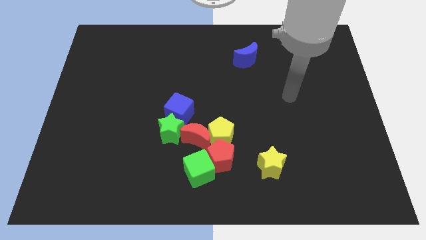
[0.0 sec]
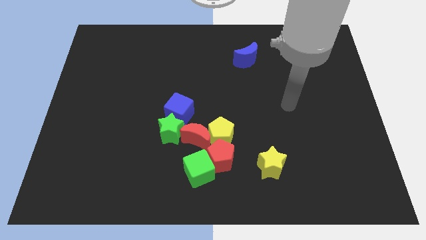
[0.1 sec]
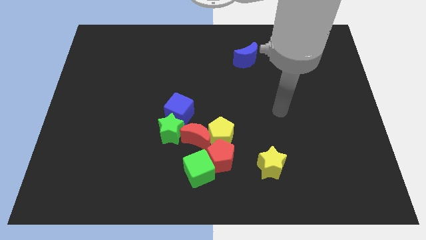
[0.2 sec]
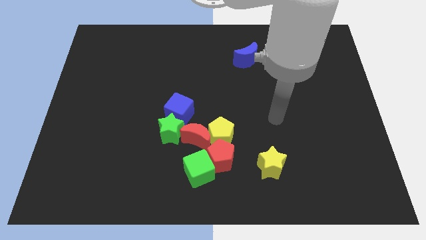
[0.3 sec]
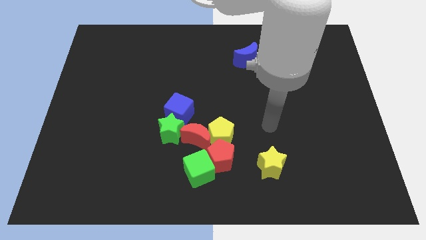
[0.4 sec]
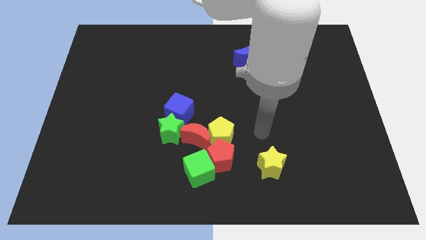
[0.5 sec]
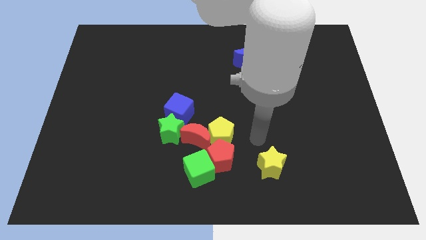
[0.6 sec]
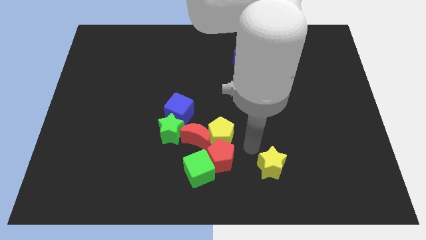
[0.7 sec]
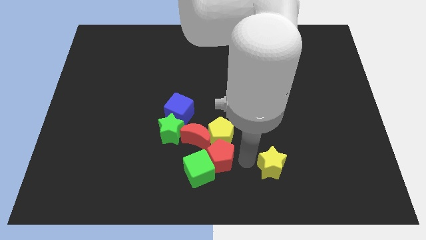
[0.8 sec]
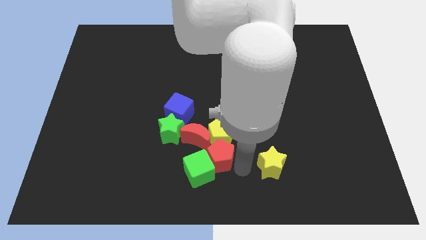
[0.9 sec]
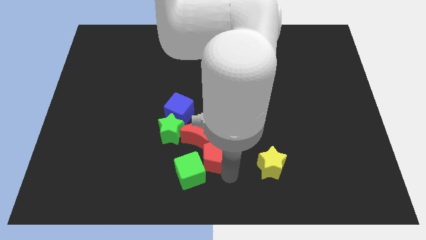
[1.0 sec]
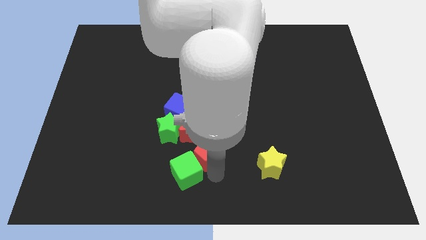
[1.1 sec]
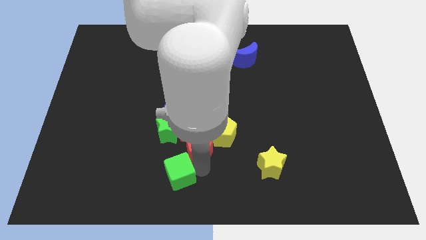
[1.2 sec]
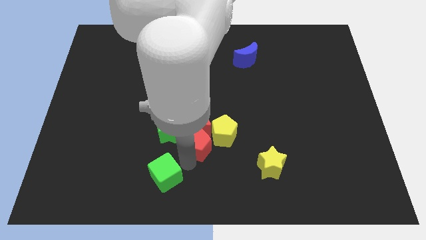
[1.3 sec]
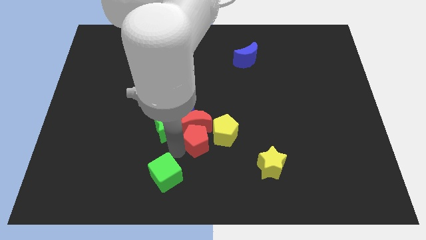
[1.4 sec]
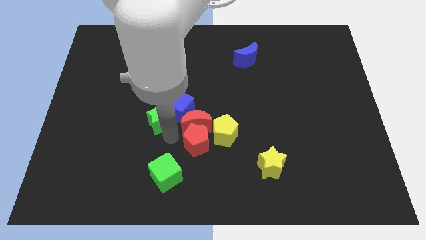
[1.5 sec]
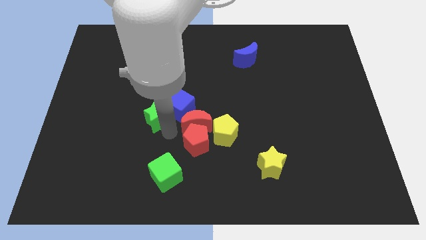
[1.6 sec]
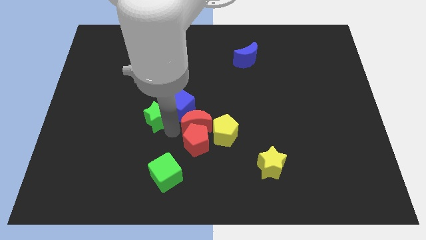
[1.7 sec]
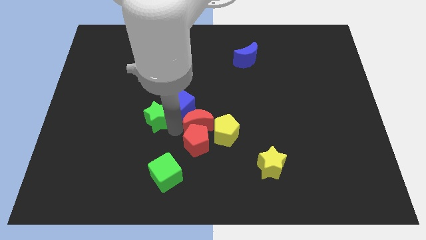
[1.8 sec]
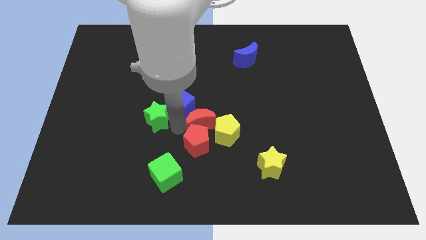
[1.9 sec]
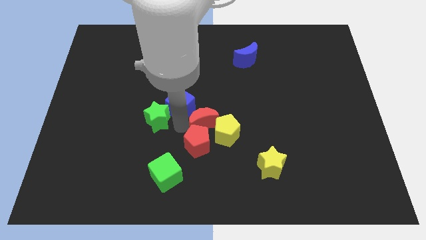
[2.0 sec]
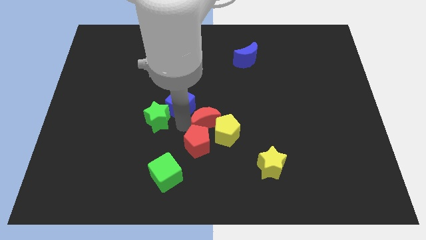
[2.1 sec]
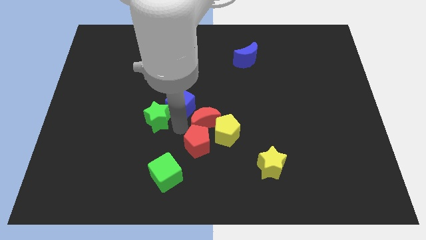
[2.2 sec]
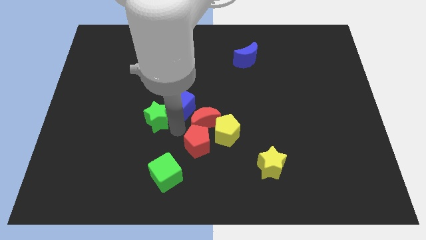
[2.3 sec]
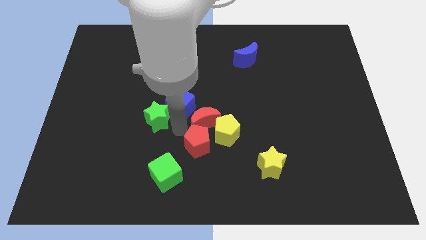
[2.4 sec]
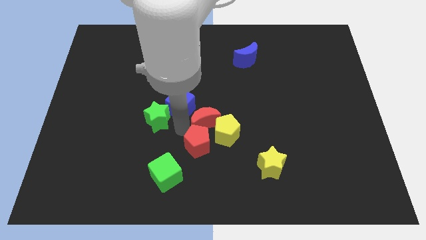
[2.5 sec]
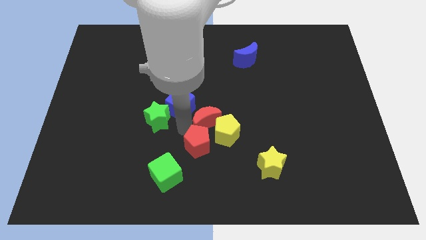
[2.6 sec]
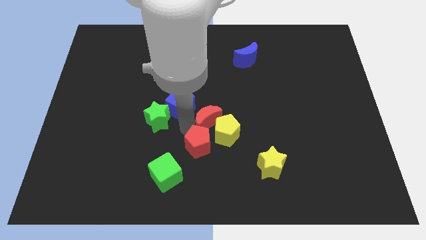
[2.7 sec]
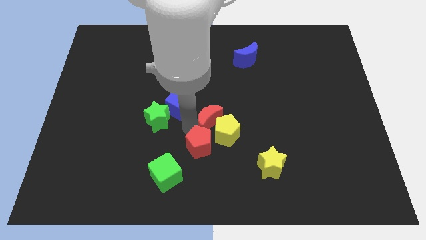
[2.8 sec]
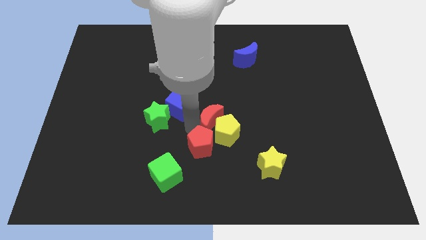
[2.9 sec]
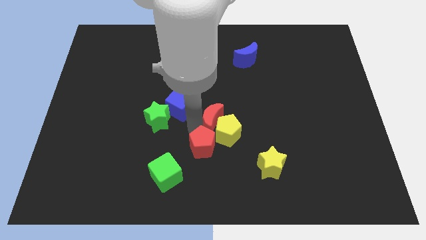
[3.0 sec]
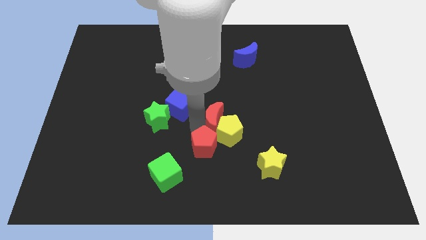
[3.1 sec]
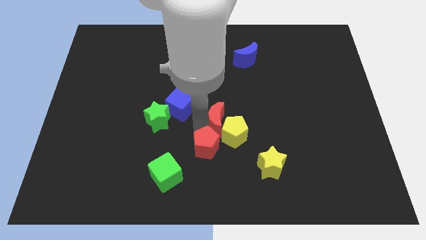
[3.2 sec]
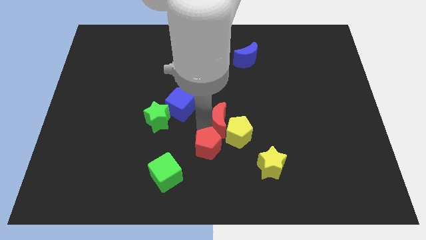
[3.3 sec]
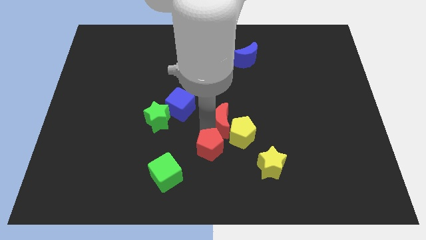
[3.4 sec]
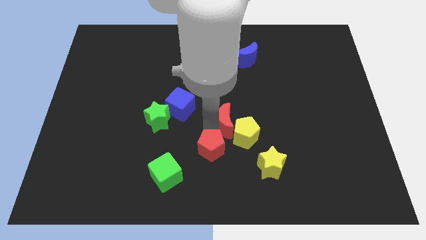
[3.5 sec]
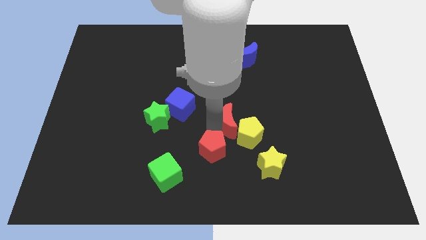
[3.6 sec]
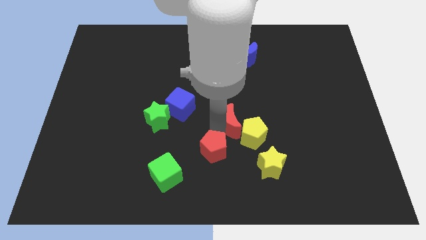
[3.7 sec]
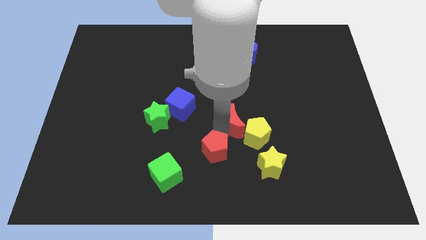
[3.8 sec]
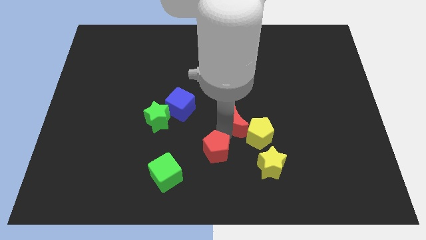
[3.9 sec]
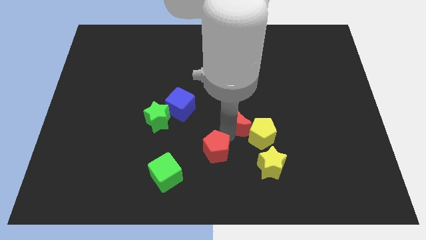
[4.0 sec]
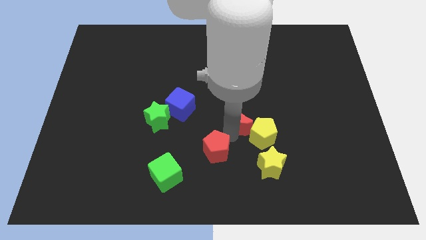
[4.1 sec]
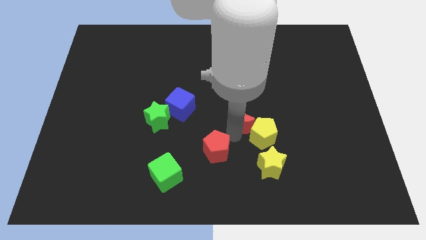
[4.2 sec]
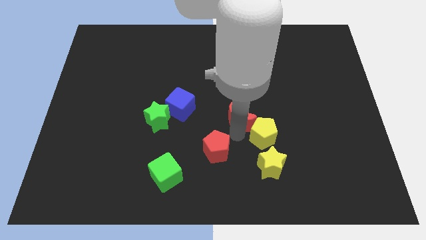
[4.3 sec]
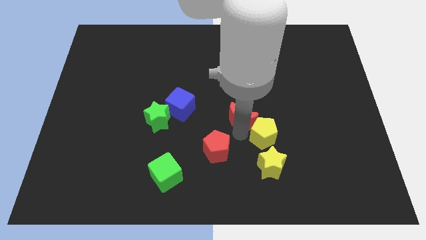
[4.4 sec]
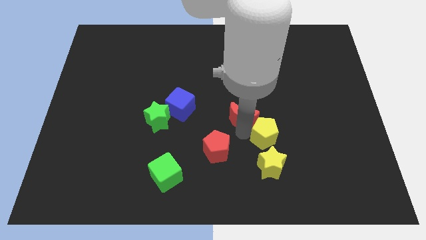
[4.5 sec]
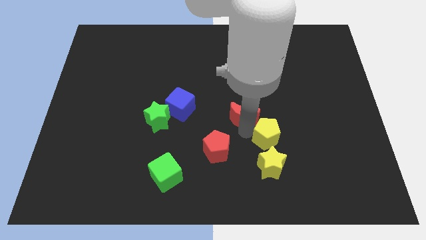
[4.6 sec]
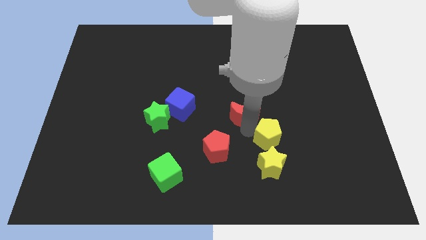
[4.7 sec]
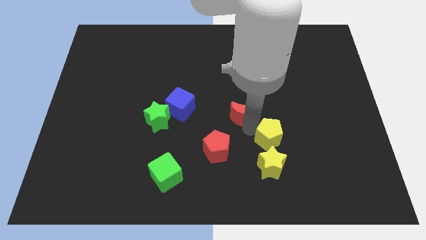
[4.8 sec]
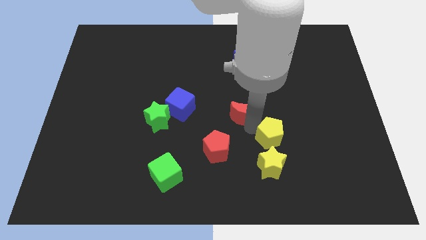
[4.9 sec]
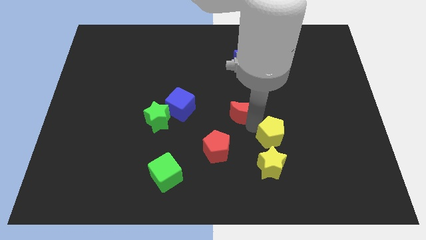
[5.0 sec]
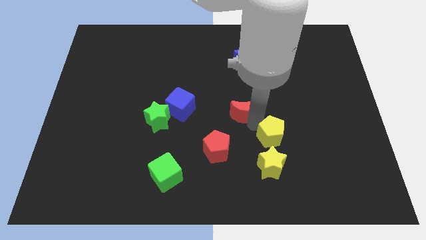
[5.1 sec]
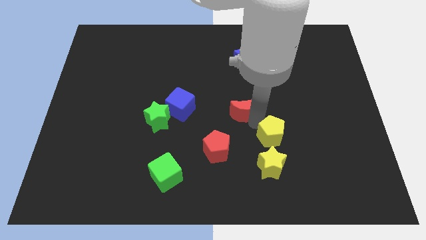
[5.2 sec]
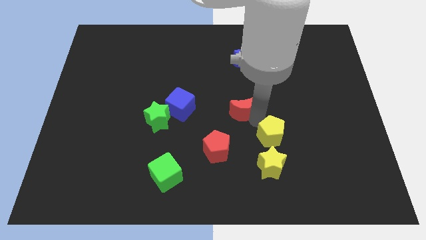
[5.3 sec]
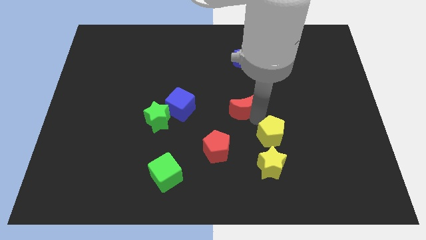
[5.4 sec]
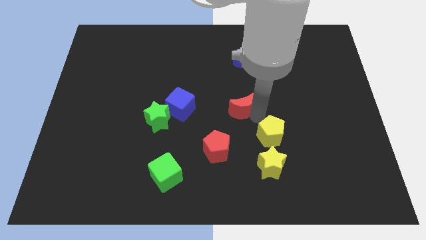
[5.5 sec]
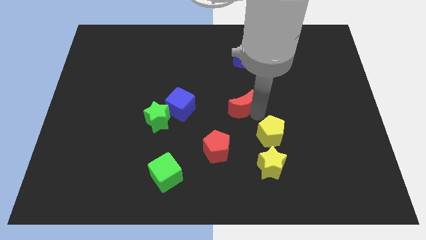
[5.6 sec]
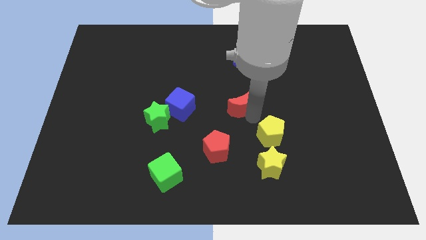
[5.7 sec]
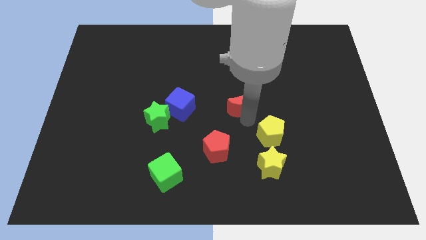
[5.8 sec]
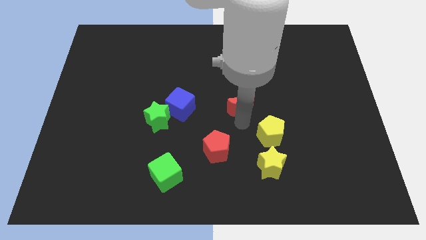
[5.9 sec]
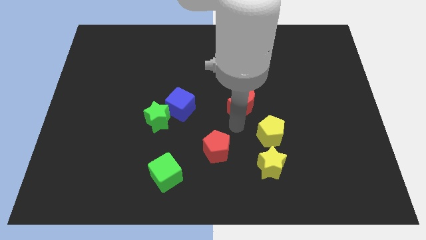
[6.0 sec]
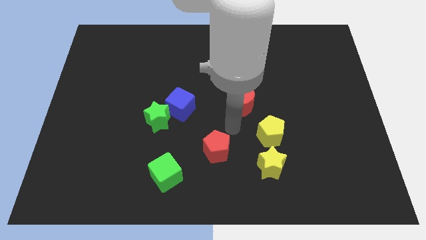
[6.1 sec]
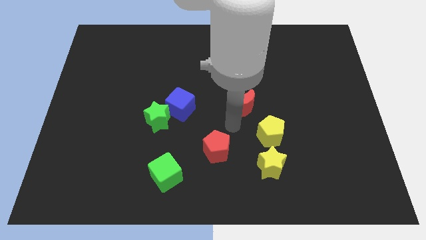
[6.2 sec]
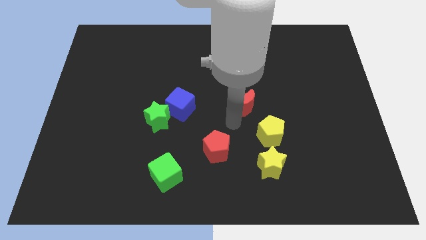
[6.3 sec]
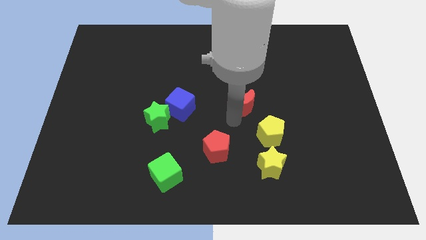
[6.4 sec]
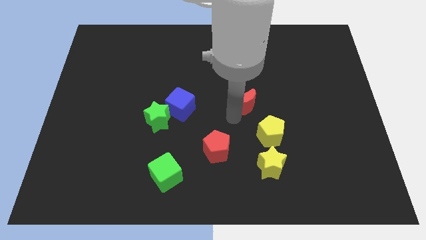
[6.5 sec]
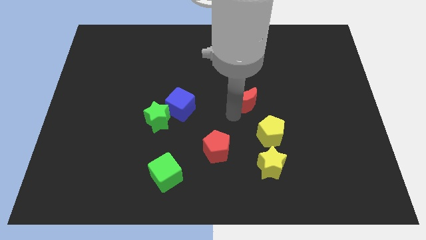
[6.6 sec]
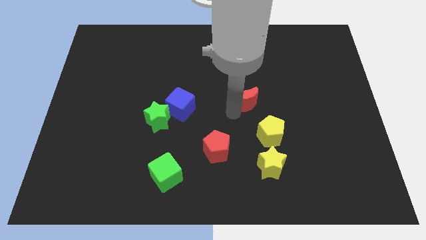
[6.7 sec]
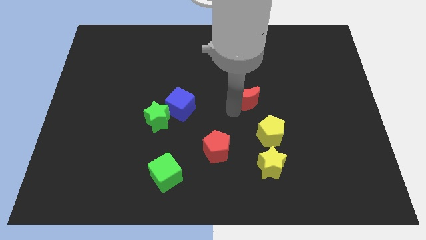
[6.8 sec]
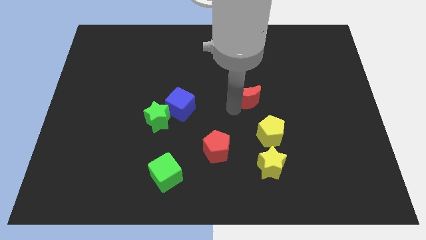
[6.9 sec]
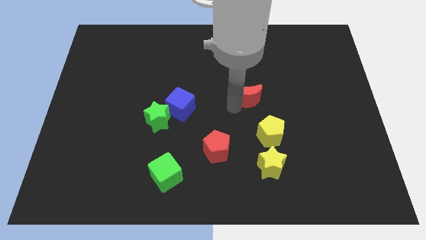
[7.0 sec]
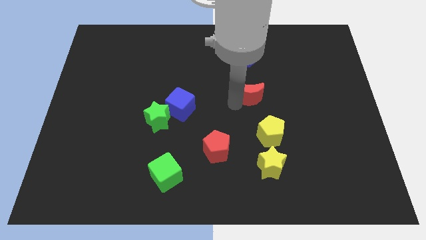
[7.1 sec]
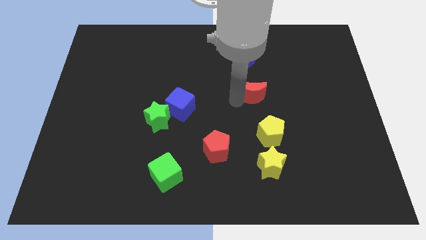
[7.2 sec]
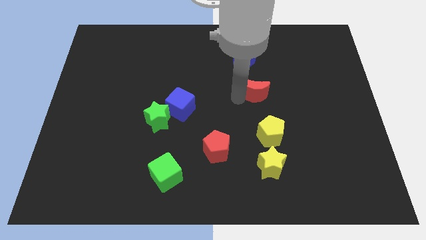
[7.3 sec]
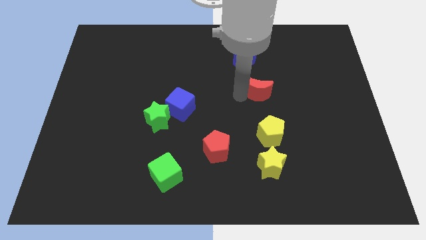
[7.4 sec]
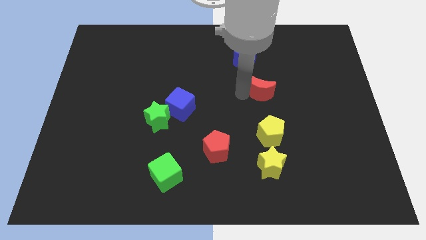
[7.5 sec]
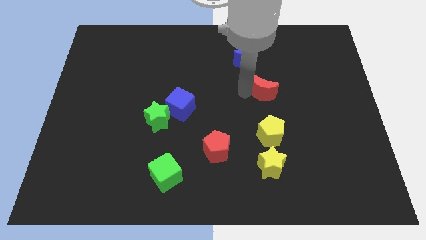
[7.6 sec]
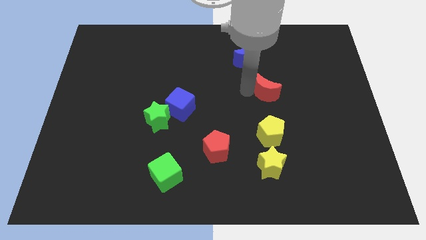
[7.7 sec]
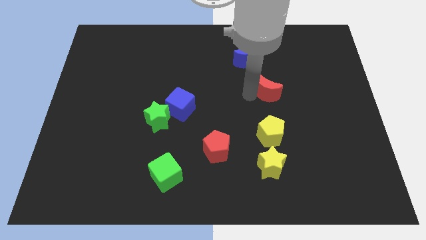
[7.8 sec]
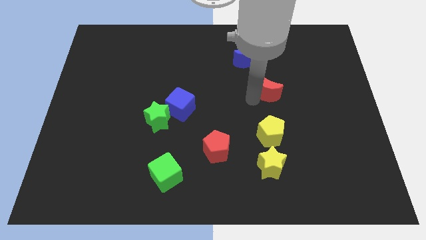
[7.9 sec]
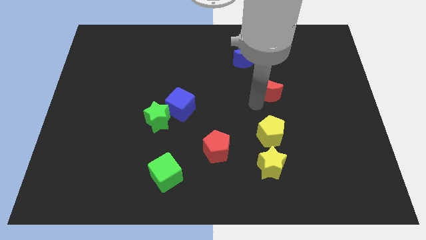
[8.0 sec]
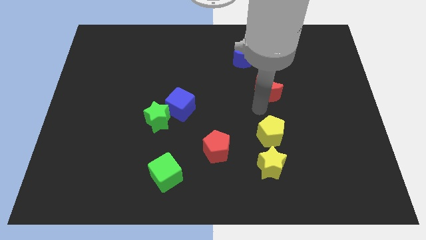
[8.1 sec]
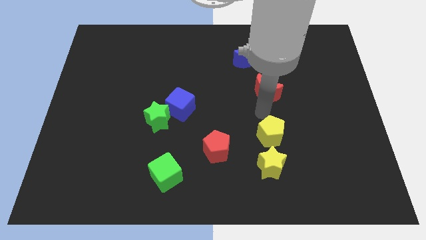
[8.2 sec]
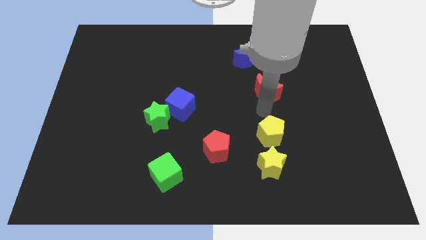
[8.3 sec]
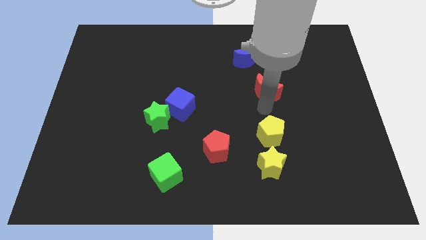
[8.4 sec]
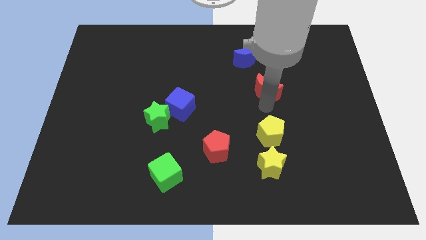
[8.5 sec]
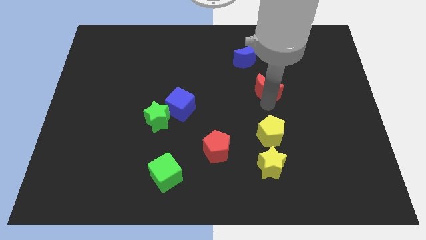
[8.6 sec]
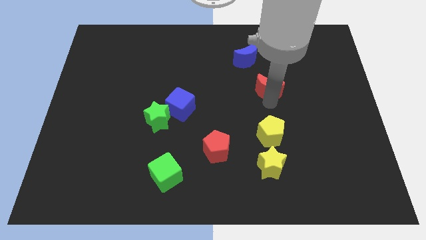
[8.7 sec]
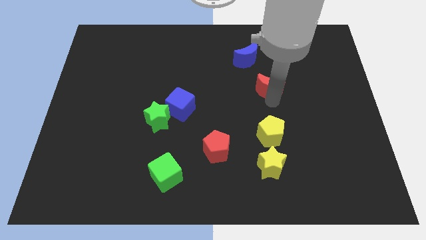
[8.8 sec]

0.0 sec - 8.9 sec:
slide the red moon to the bottom right side of the blue moon
